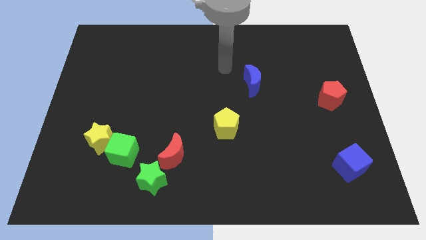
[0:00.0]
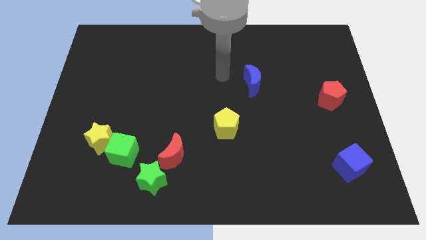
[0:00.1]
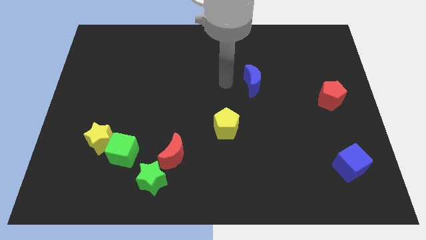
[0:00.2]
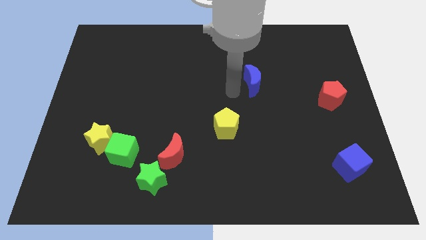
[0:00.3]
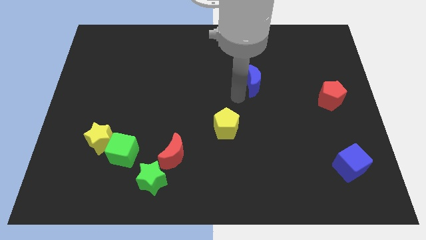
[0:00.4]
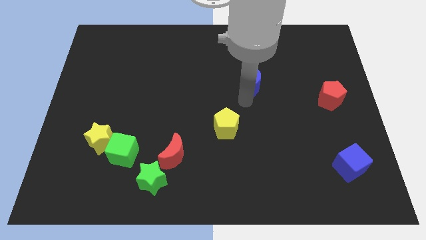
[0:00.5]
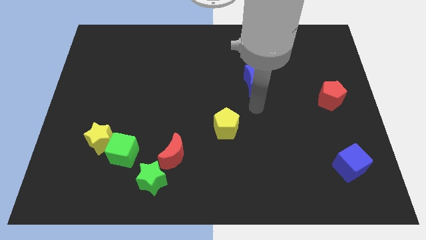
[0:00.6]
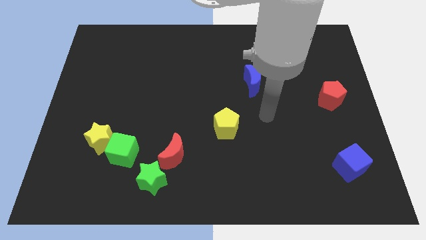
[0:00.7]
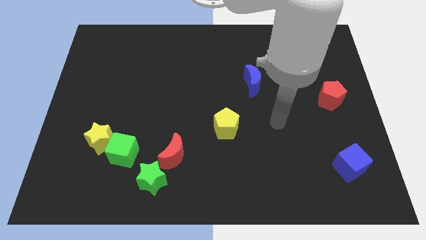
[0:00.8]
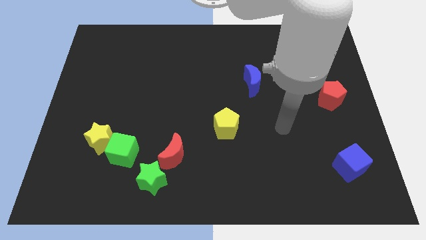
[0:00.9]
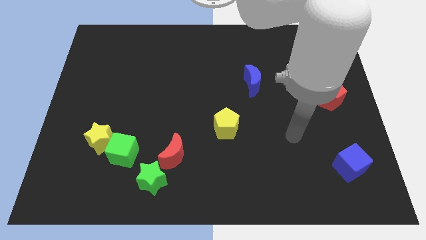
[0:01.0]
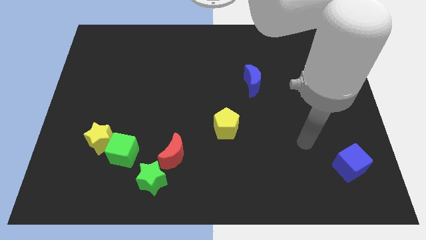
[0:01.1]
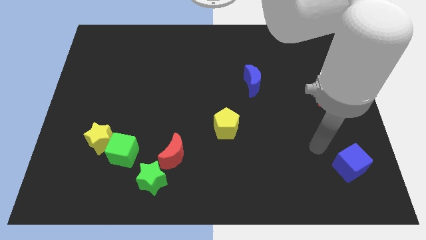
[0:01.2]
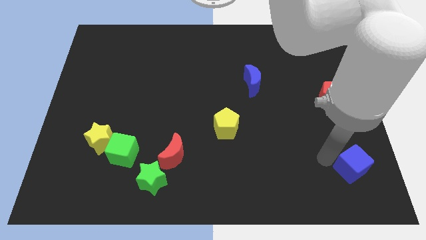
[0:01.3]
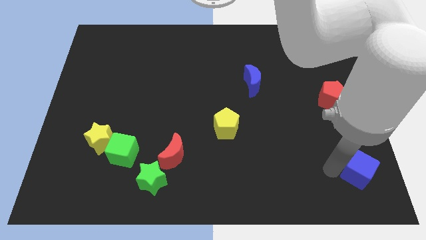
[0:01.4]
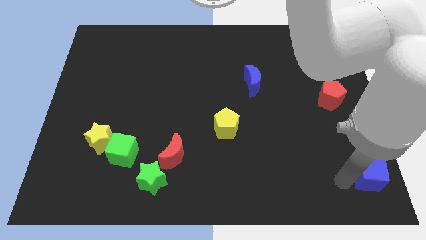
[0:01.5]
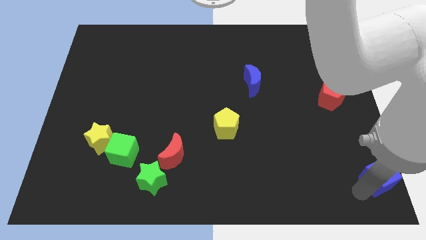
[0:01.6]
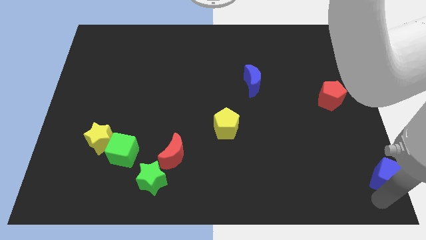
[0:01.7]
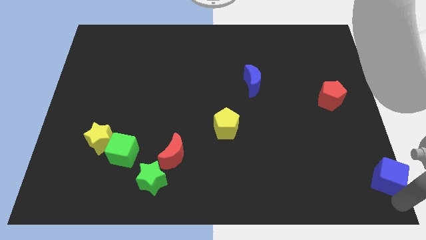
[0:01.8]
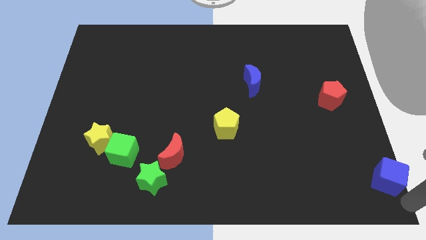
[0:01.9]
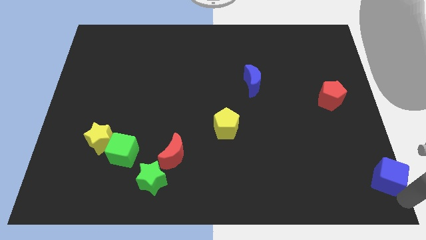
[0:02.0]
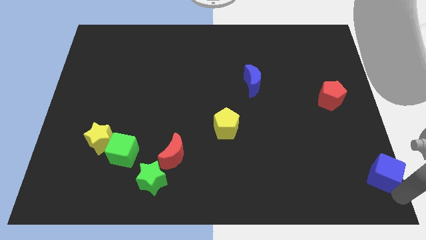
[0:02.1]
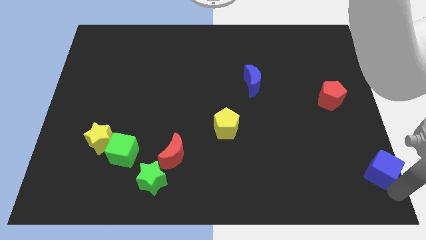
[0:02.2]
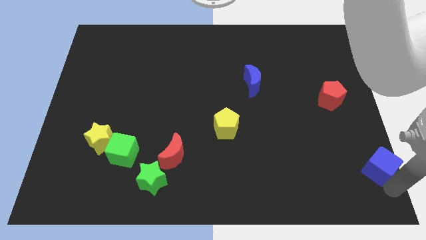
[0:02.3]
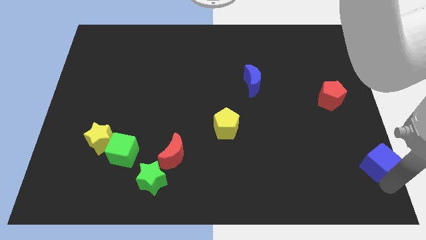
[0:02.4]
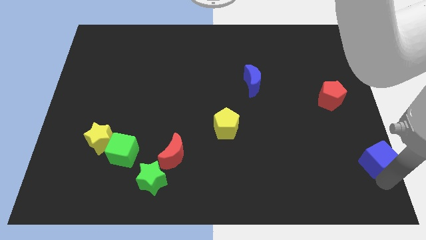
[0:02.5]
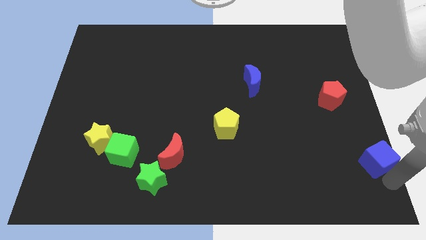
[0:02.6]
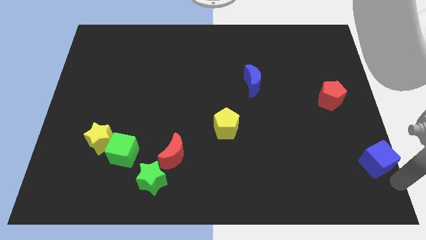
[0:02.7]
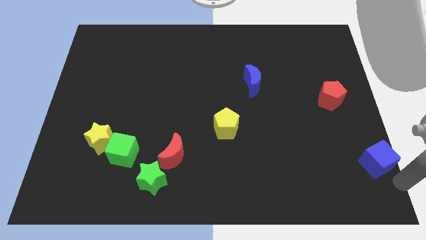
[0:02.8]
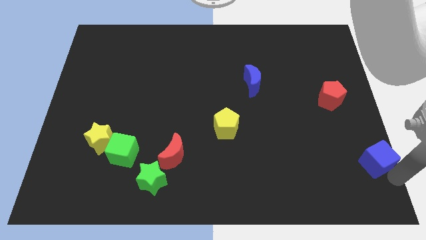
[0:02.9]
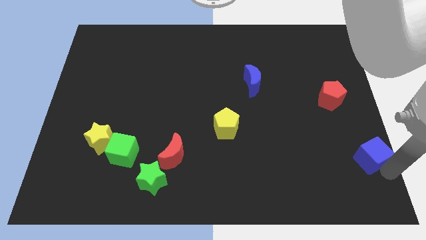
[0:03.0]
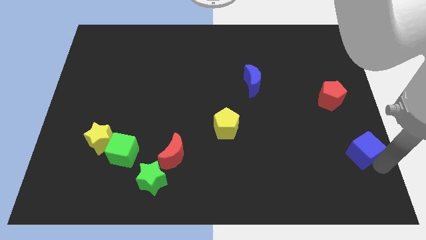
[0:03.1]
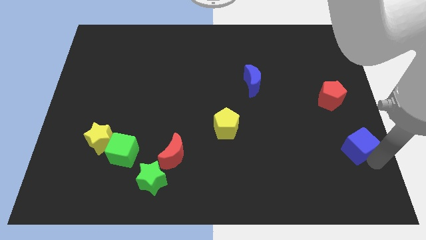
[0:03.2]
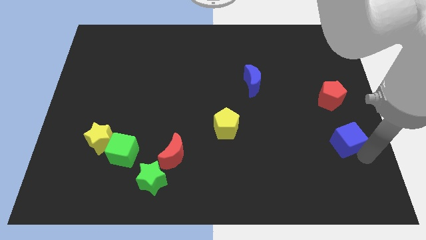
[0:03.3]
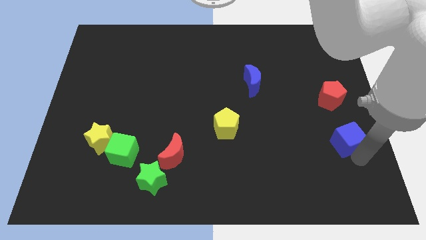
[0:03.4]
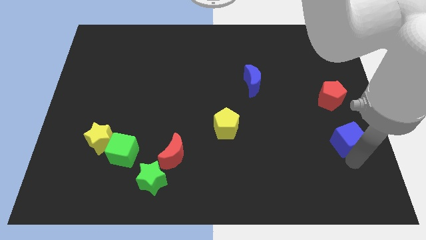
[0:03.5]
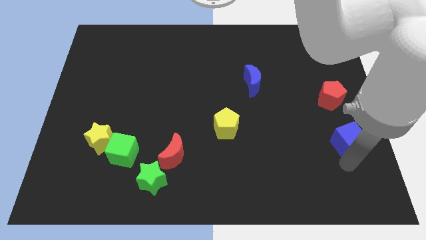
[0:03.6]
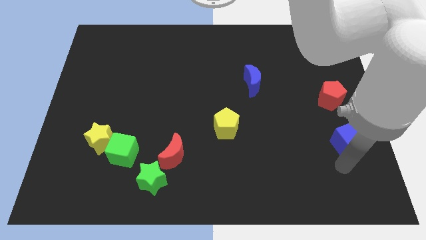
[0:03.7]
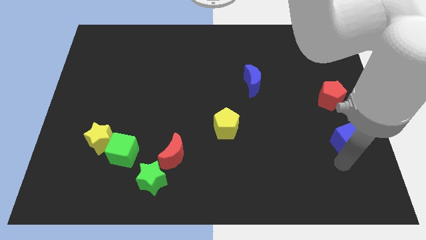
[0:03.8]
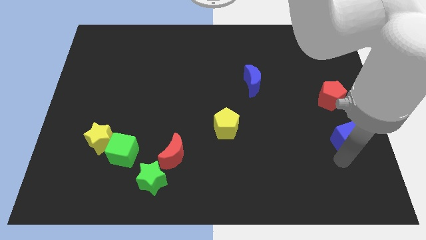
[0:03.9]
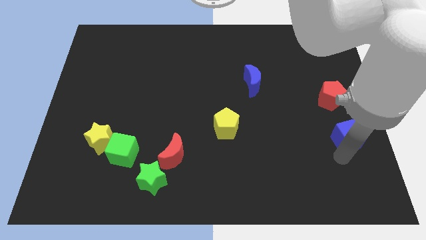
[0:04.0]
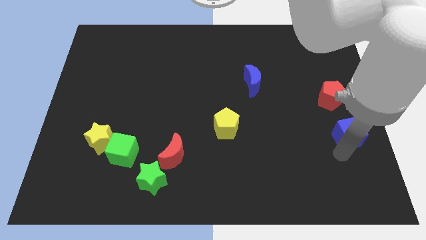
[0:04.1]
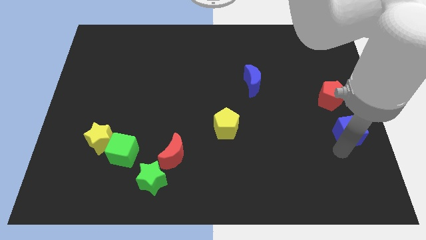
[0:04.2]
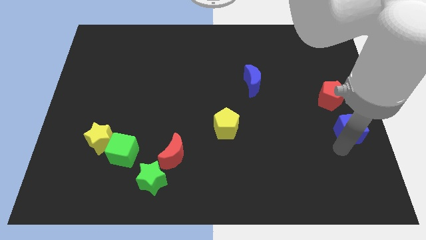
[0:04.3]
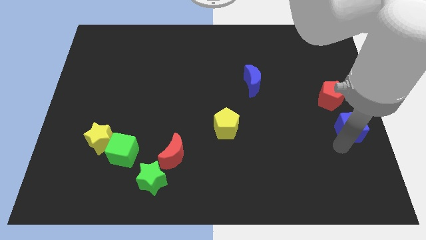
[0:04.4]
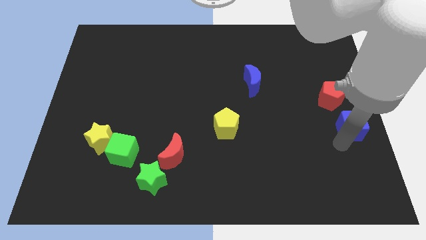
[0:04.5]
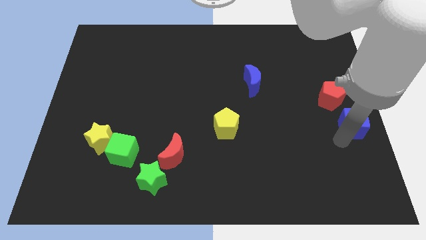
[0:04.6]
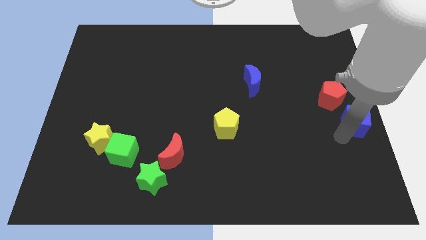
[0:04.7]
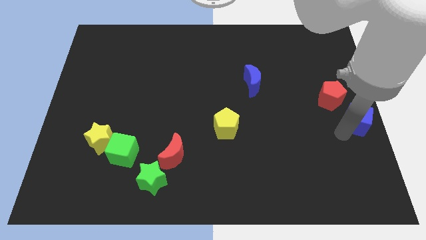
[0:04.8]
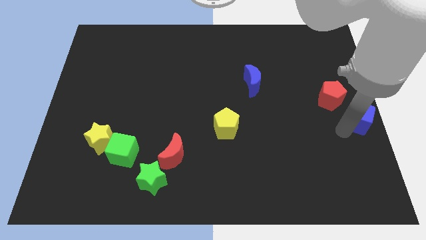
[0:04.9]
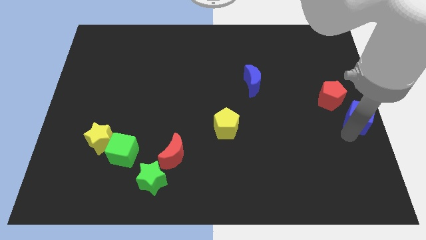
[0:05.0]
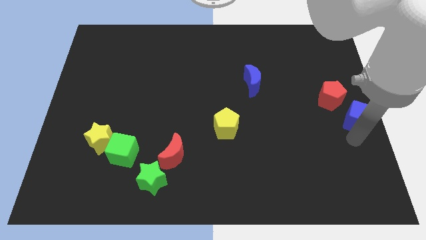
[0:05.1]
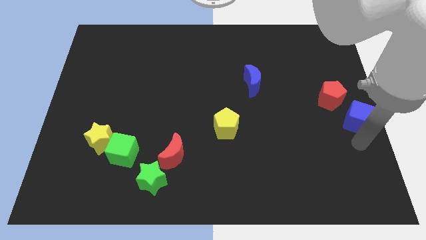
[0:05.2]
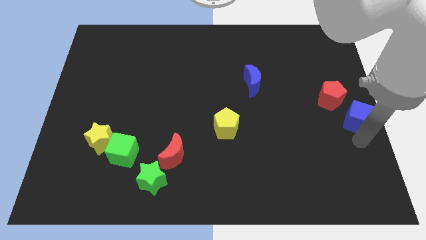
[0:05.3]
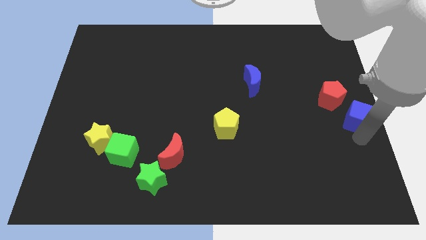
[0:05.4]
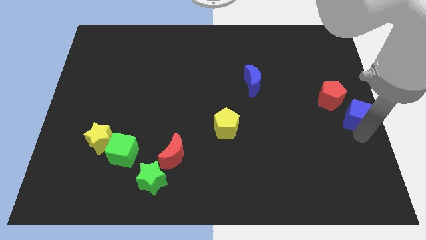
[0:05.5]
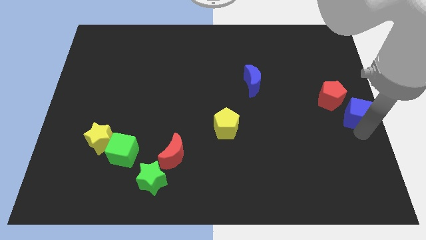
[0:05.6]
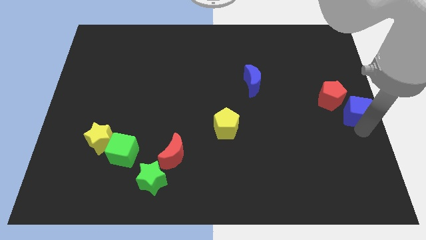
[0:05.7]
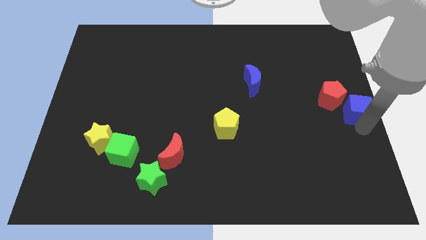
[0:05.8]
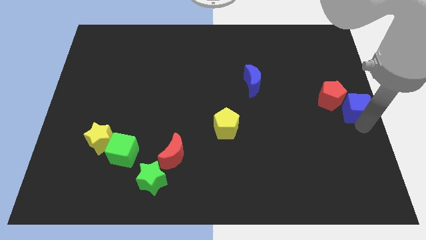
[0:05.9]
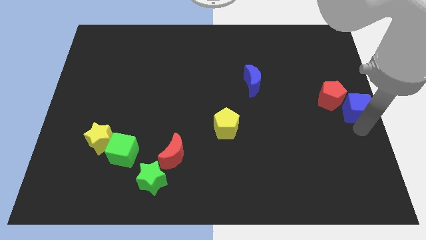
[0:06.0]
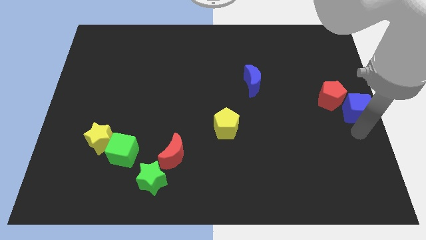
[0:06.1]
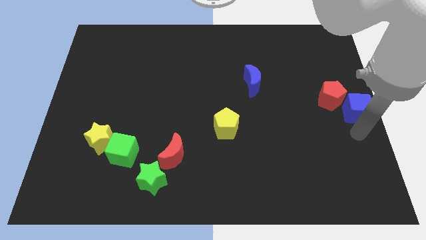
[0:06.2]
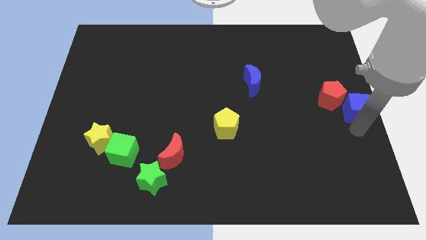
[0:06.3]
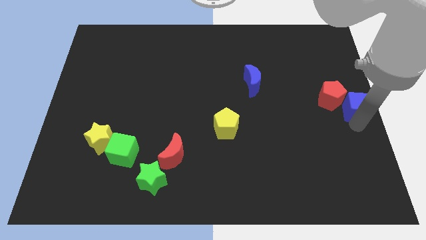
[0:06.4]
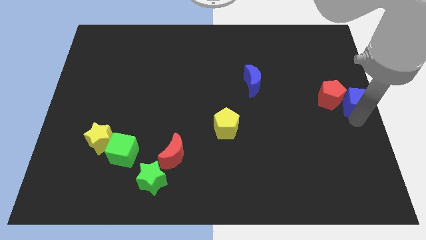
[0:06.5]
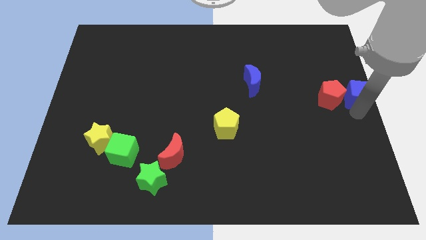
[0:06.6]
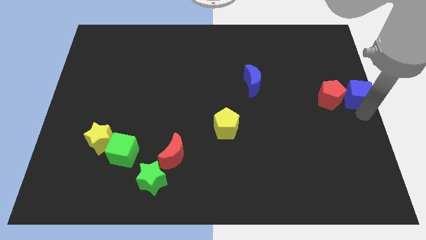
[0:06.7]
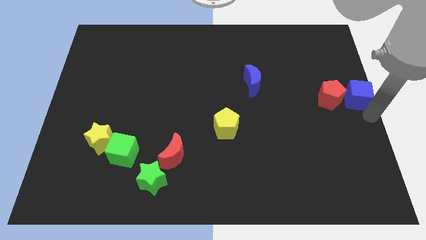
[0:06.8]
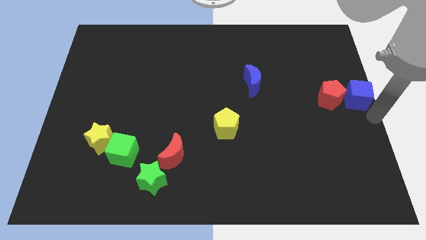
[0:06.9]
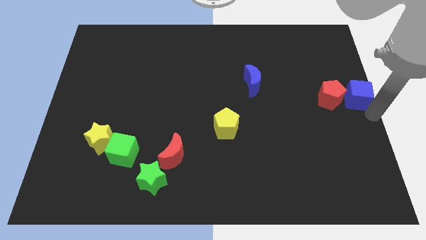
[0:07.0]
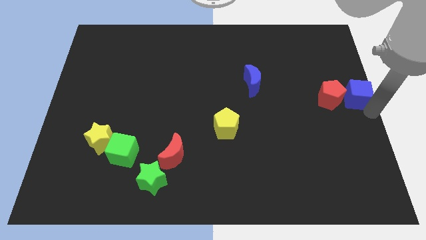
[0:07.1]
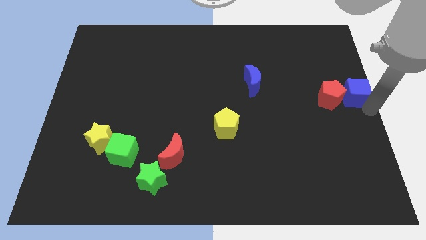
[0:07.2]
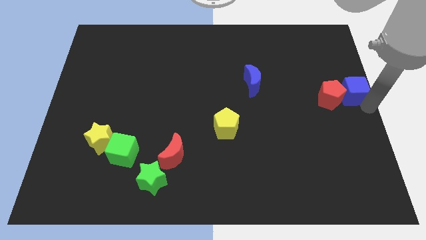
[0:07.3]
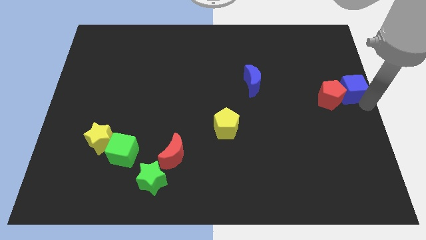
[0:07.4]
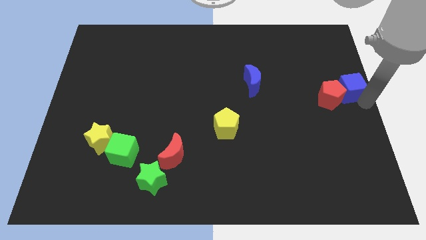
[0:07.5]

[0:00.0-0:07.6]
move the blue cube upwards
